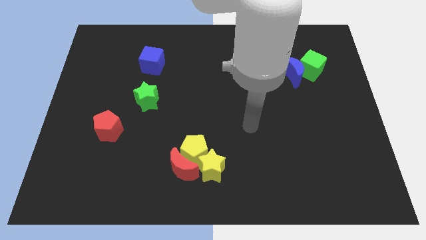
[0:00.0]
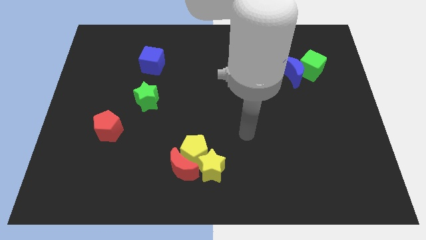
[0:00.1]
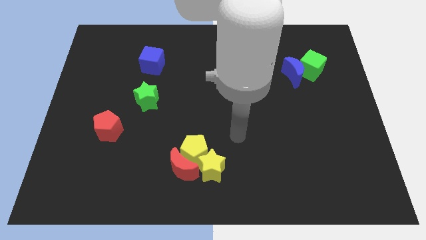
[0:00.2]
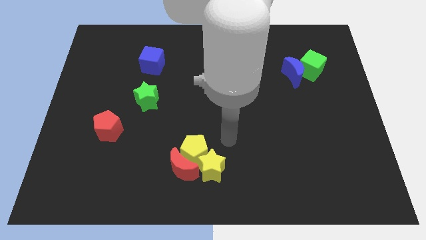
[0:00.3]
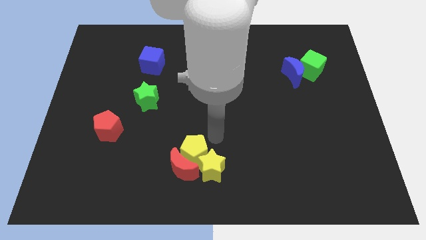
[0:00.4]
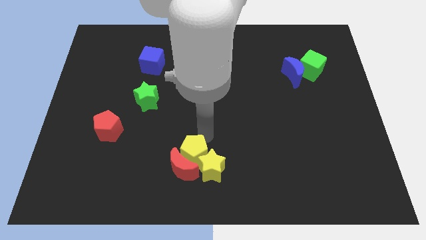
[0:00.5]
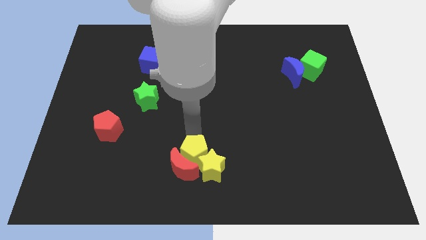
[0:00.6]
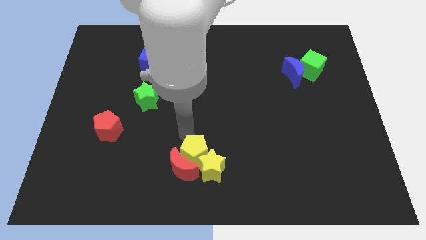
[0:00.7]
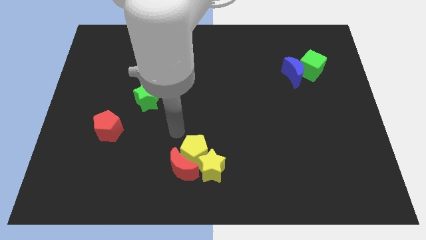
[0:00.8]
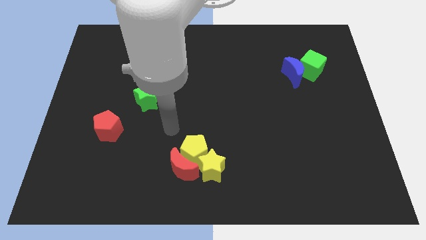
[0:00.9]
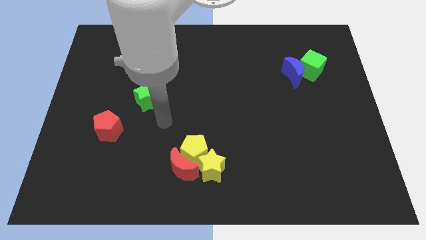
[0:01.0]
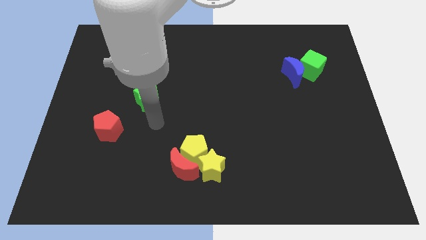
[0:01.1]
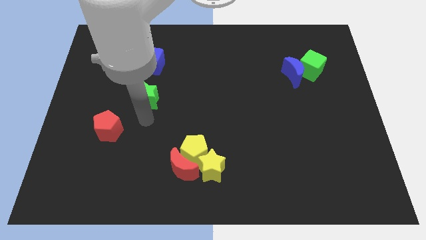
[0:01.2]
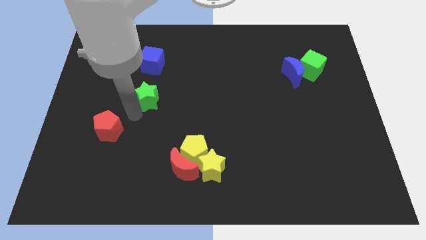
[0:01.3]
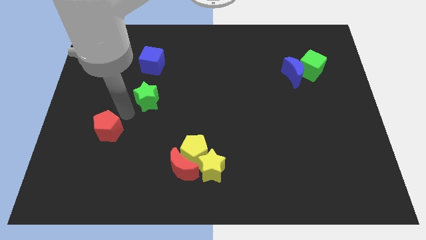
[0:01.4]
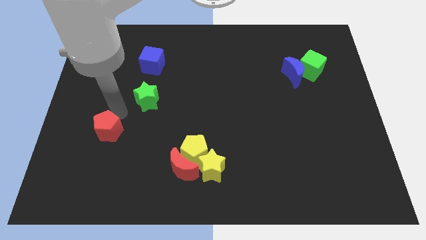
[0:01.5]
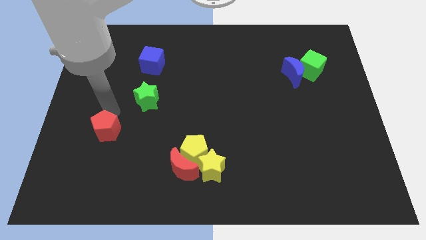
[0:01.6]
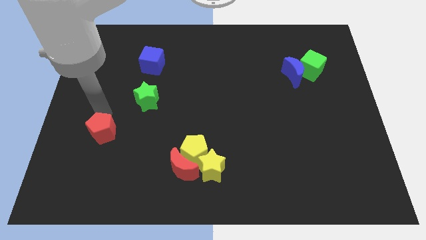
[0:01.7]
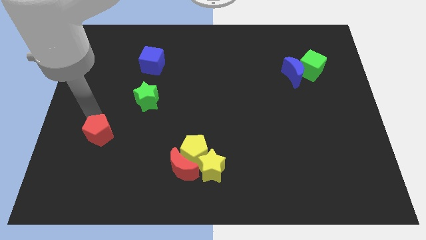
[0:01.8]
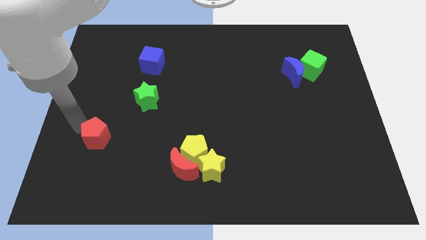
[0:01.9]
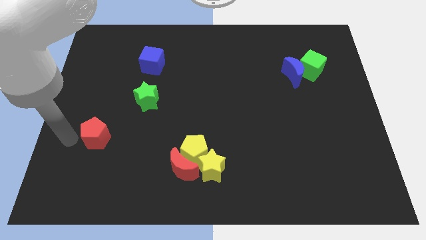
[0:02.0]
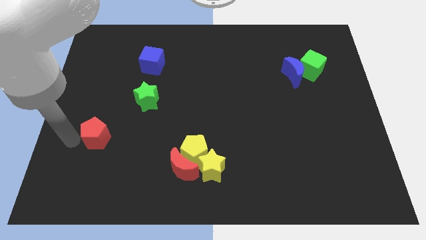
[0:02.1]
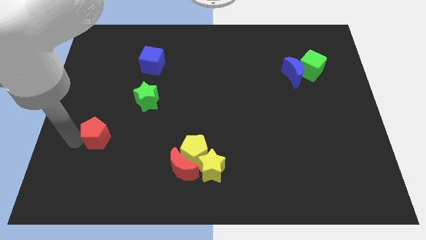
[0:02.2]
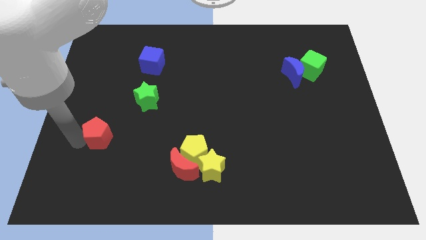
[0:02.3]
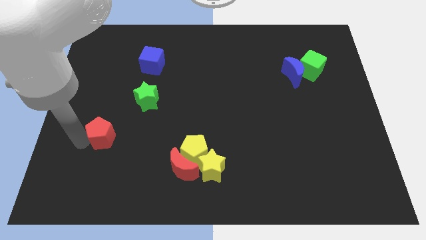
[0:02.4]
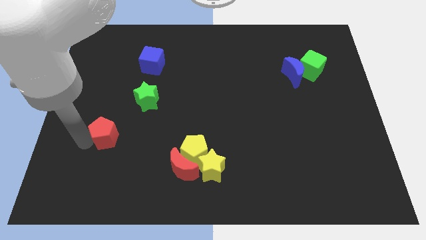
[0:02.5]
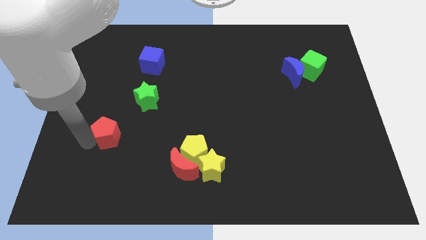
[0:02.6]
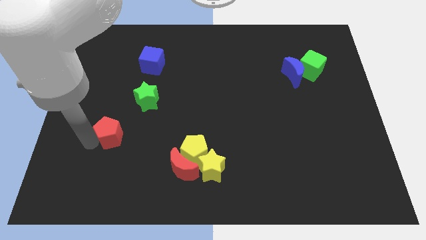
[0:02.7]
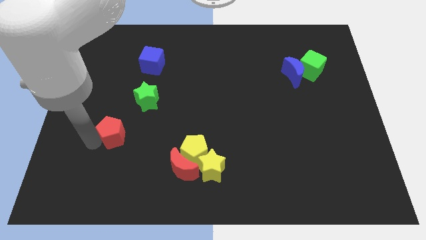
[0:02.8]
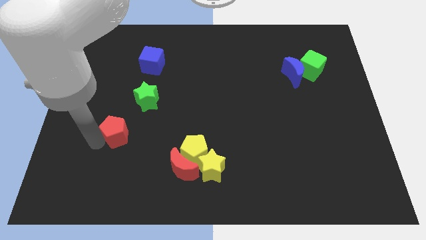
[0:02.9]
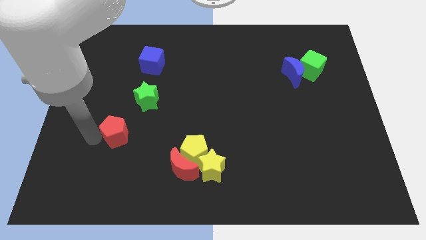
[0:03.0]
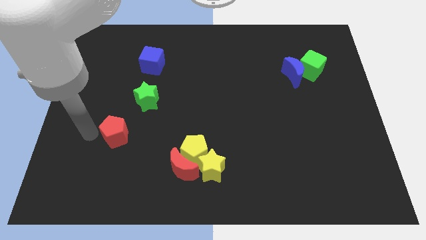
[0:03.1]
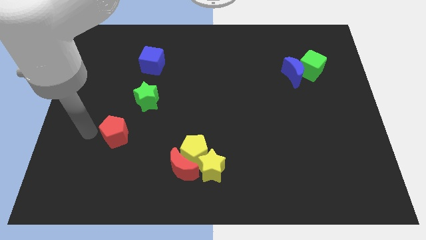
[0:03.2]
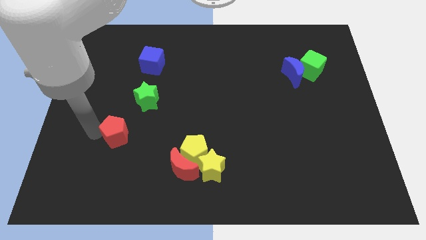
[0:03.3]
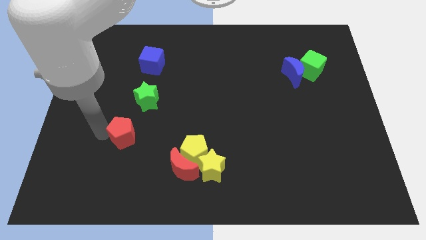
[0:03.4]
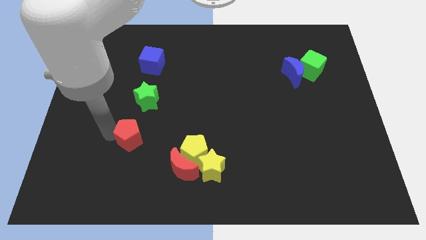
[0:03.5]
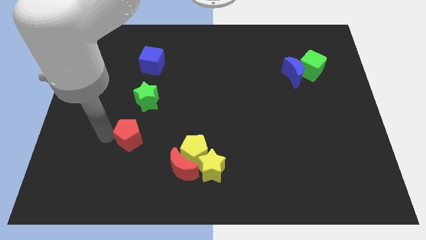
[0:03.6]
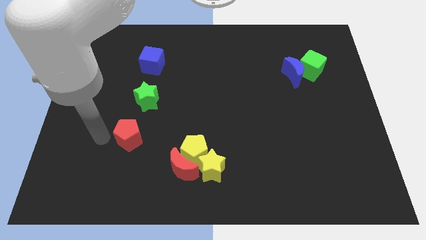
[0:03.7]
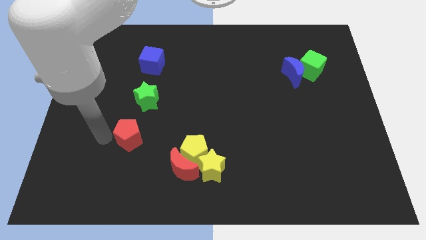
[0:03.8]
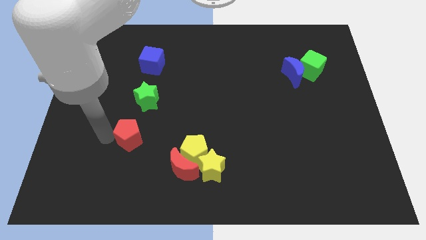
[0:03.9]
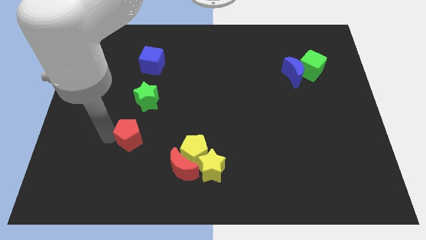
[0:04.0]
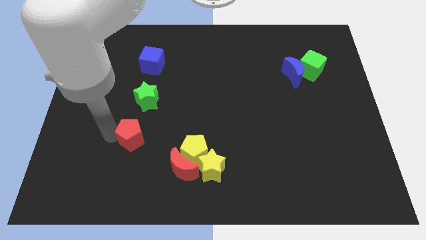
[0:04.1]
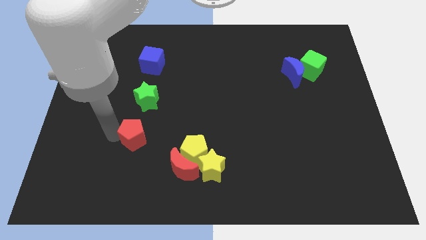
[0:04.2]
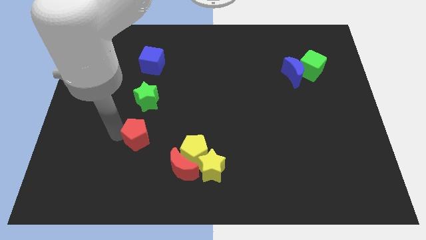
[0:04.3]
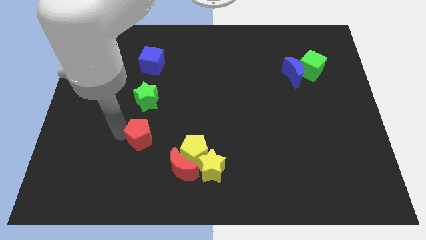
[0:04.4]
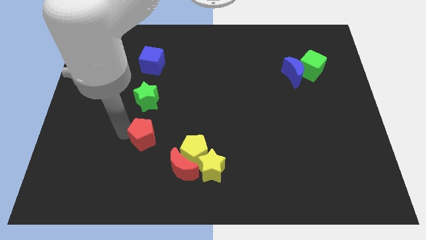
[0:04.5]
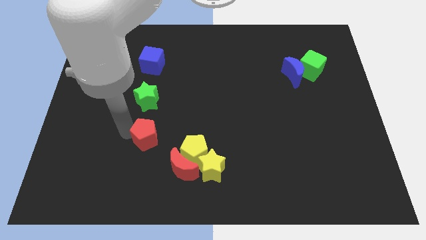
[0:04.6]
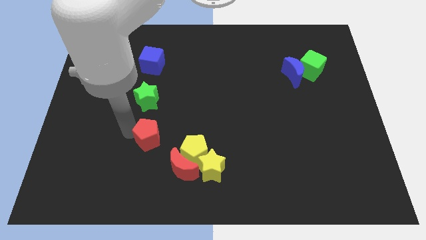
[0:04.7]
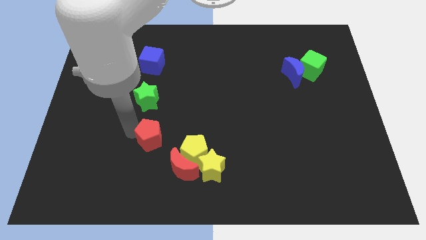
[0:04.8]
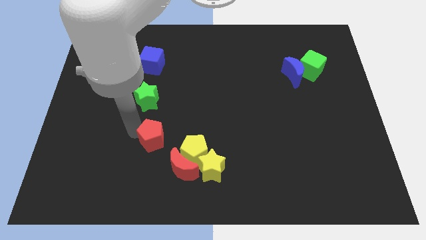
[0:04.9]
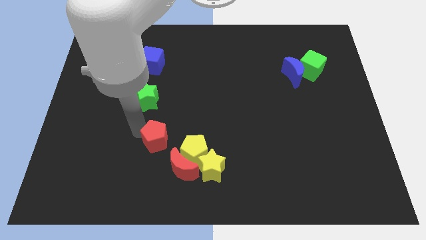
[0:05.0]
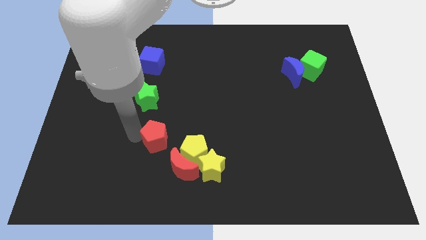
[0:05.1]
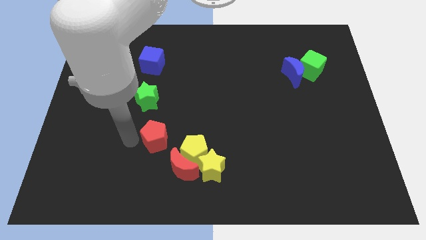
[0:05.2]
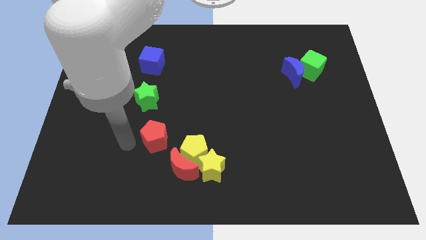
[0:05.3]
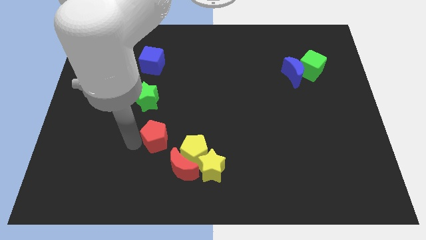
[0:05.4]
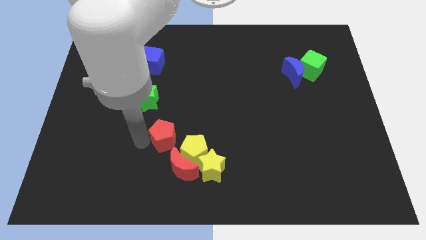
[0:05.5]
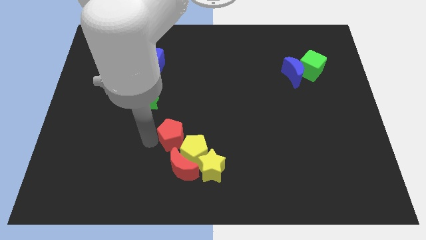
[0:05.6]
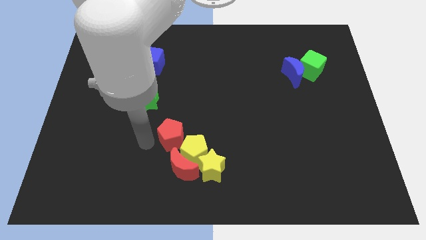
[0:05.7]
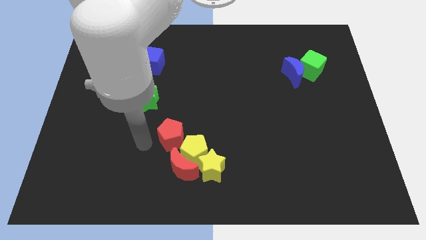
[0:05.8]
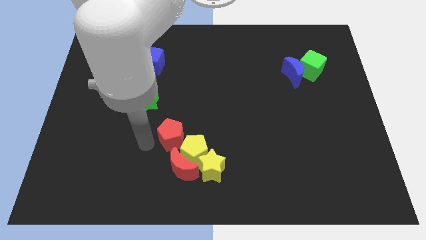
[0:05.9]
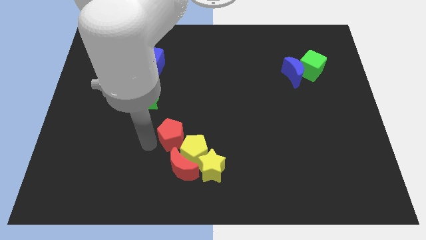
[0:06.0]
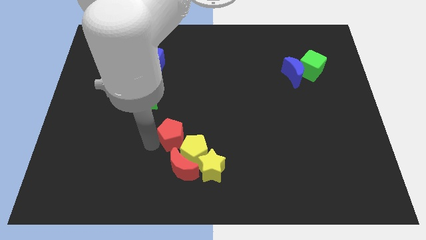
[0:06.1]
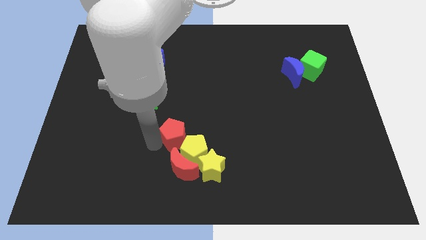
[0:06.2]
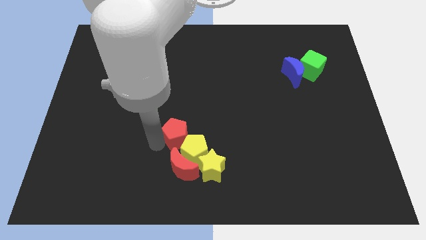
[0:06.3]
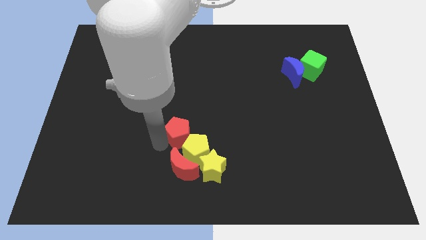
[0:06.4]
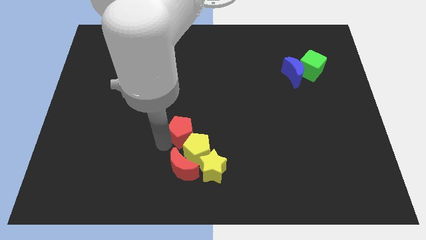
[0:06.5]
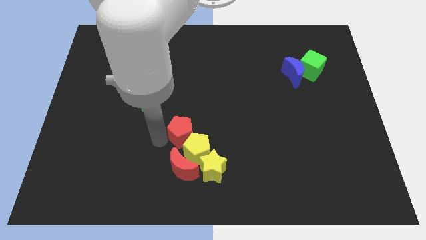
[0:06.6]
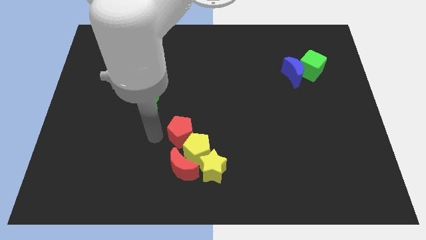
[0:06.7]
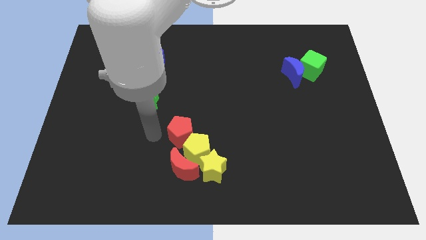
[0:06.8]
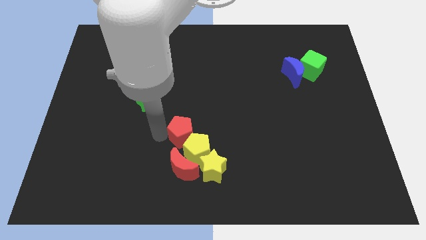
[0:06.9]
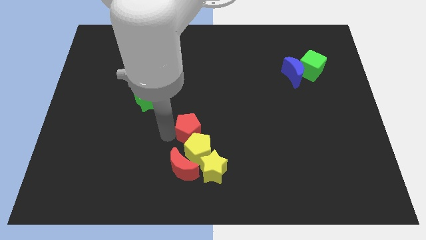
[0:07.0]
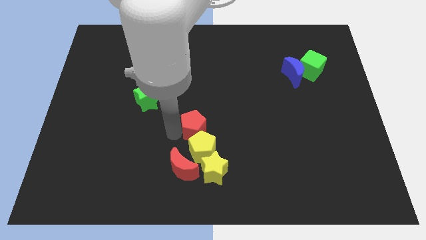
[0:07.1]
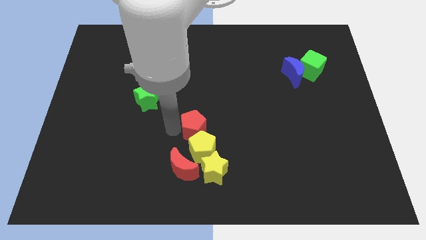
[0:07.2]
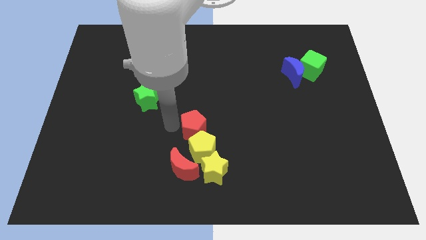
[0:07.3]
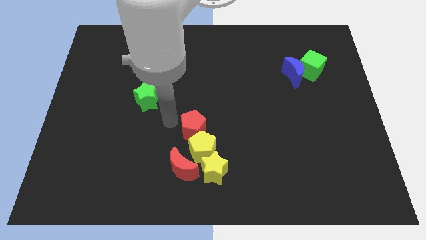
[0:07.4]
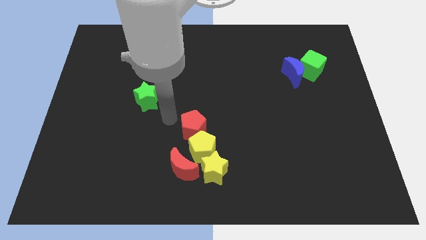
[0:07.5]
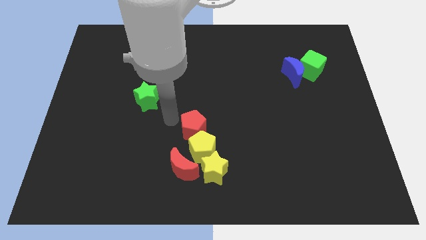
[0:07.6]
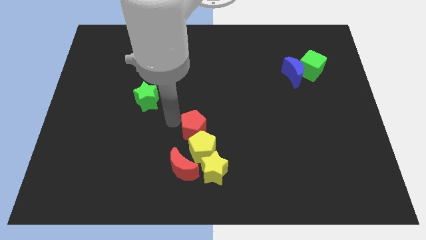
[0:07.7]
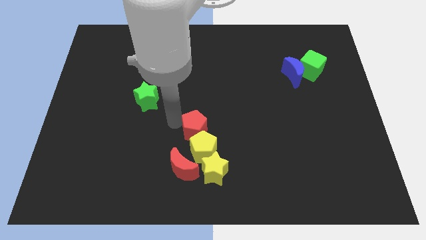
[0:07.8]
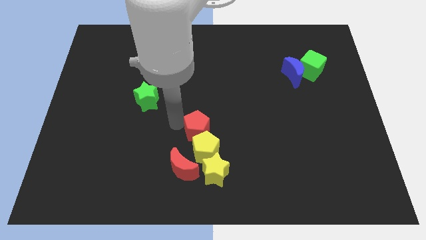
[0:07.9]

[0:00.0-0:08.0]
move the red pentagon right

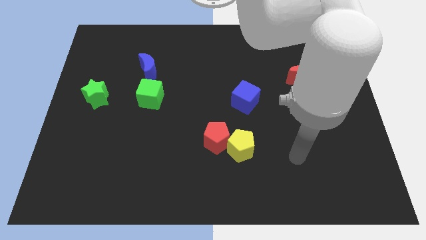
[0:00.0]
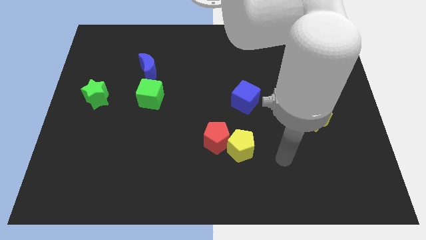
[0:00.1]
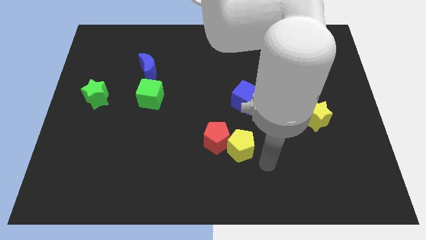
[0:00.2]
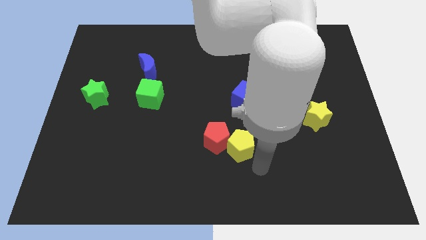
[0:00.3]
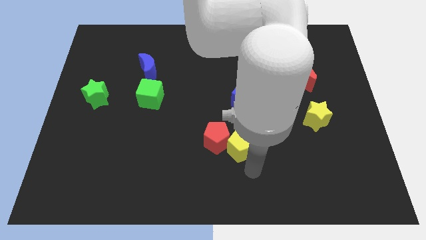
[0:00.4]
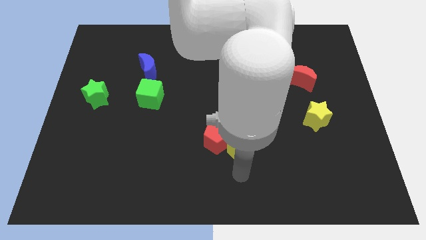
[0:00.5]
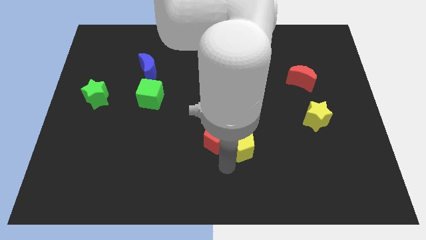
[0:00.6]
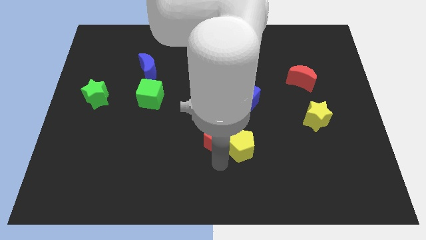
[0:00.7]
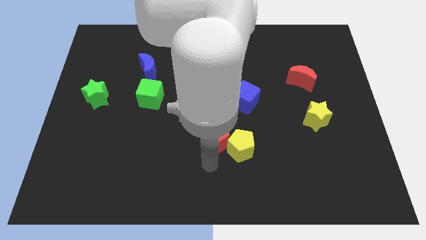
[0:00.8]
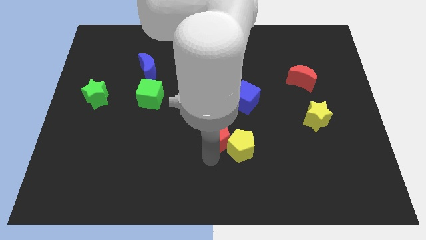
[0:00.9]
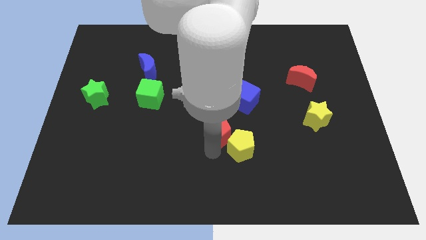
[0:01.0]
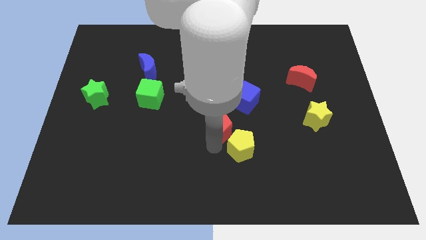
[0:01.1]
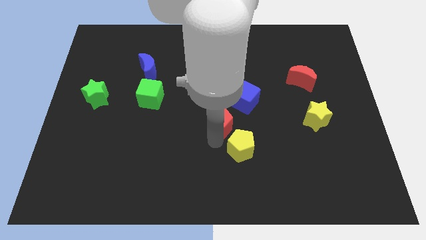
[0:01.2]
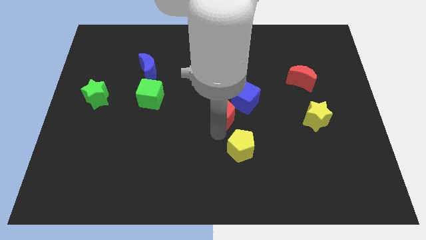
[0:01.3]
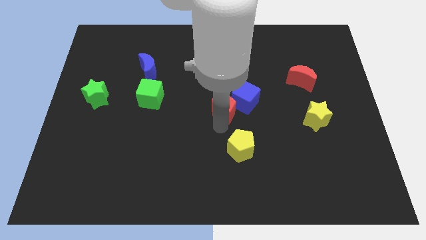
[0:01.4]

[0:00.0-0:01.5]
push the red pentagon a little up
